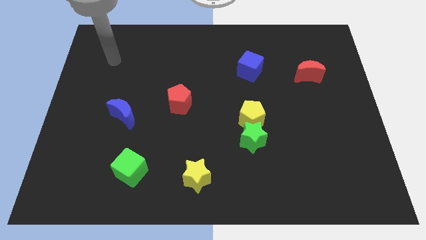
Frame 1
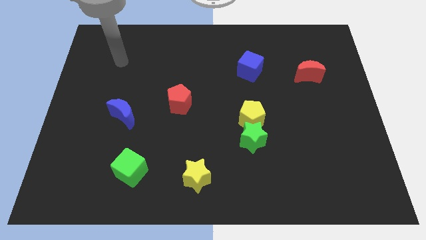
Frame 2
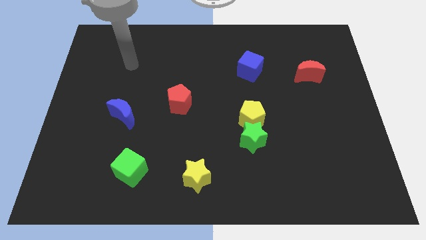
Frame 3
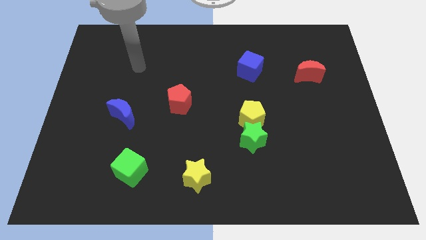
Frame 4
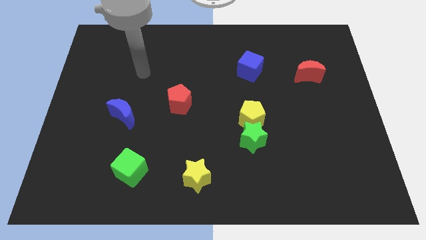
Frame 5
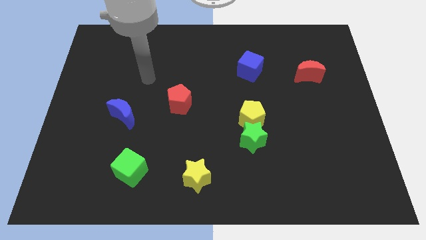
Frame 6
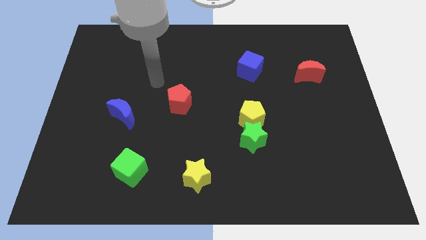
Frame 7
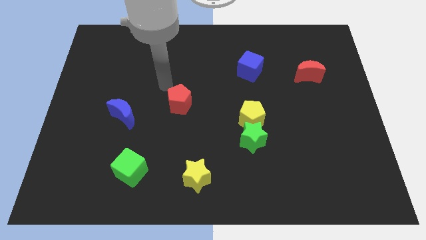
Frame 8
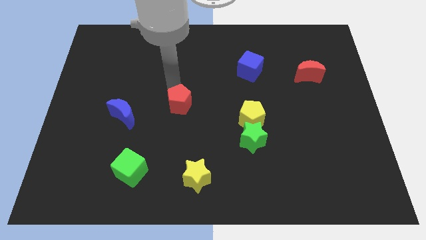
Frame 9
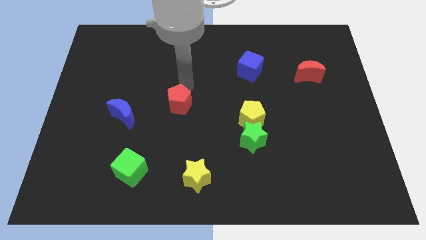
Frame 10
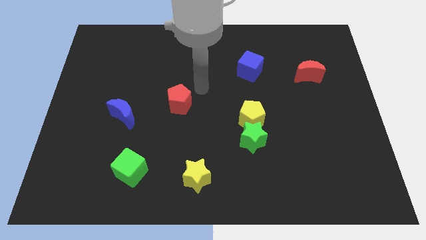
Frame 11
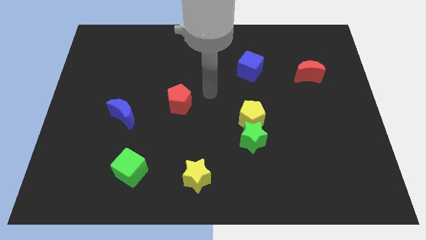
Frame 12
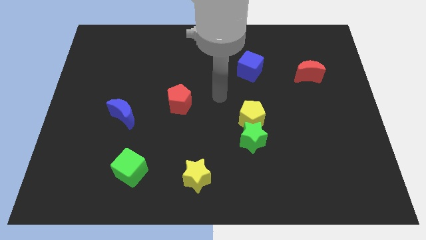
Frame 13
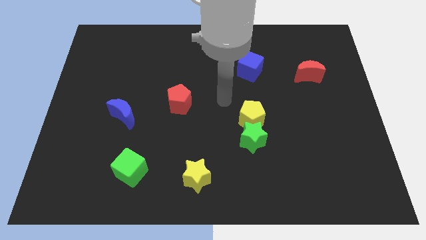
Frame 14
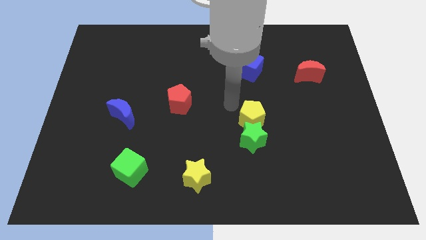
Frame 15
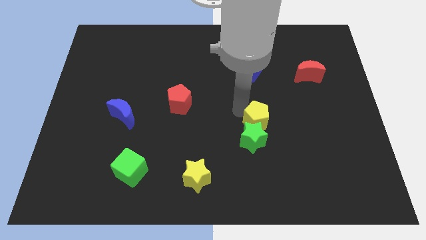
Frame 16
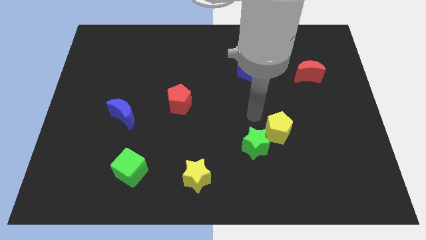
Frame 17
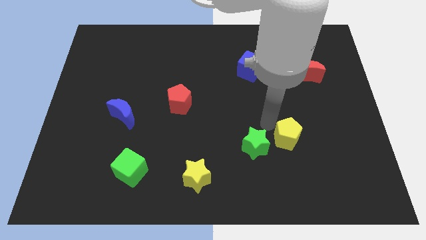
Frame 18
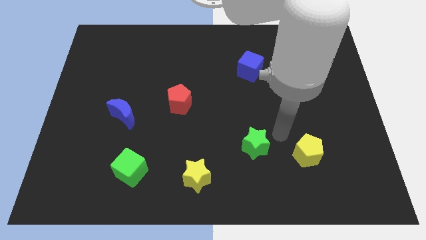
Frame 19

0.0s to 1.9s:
pull the green star apart from the yellow pentagon

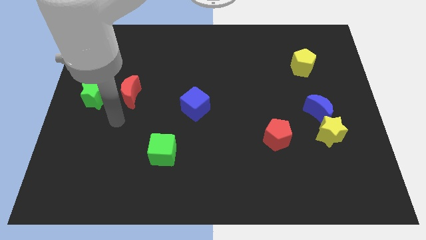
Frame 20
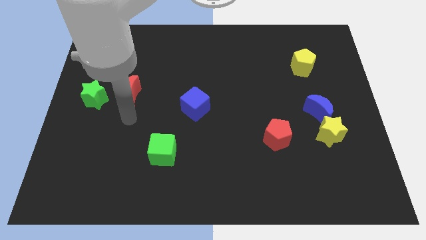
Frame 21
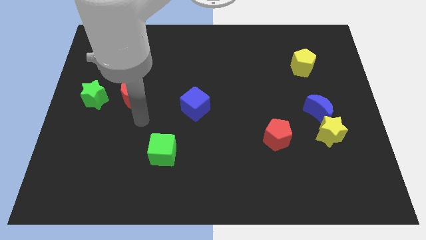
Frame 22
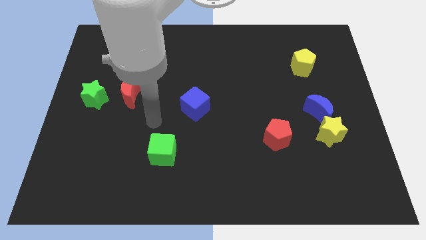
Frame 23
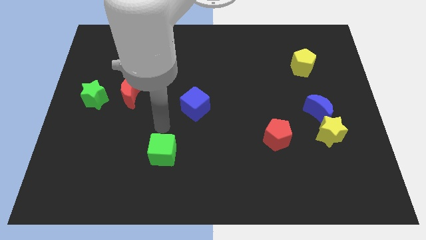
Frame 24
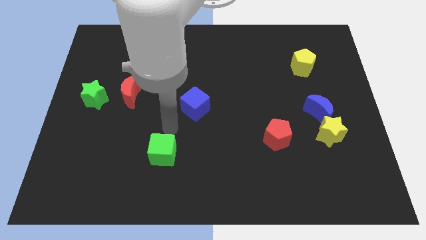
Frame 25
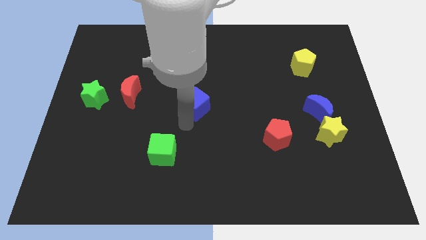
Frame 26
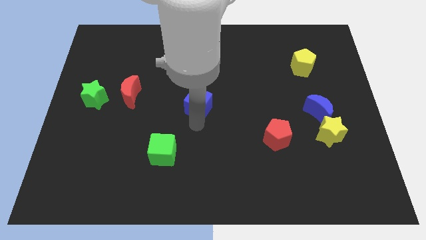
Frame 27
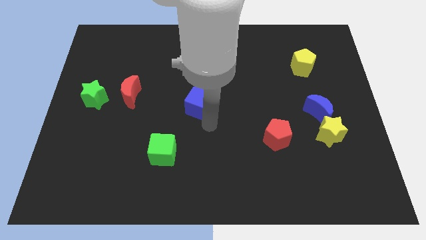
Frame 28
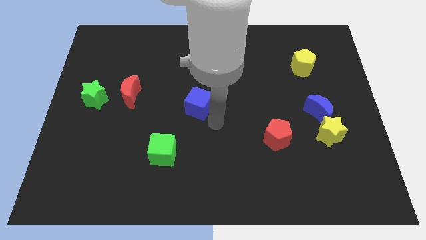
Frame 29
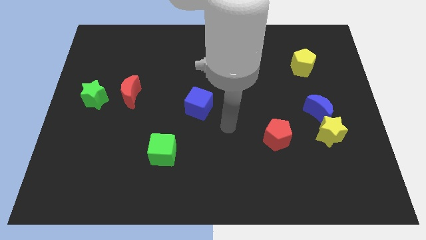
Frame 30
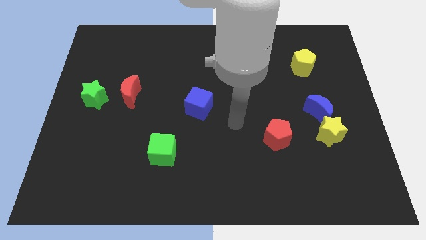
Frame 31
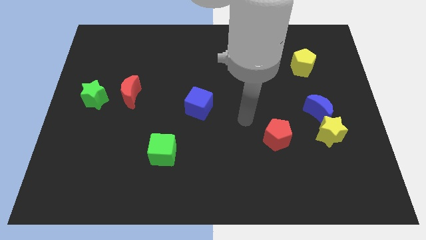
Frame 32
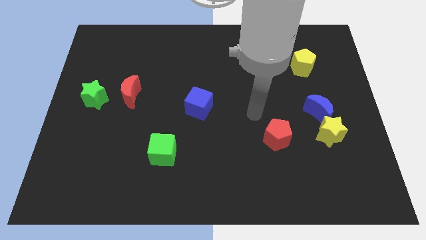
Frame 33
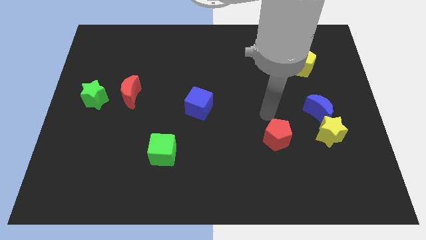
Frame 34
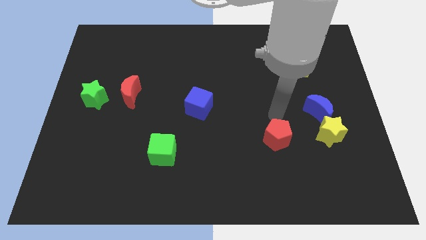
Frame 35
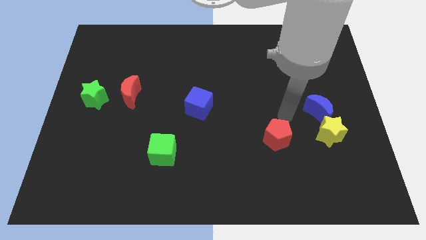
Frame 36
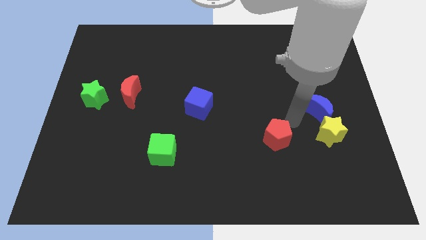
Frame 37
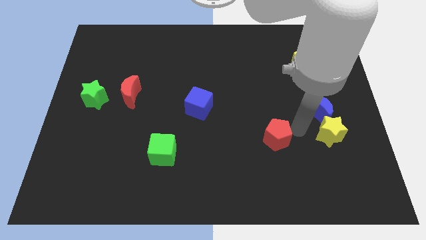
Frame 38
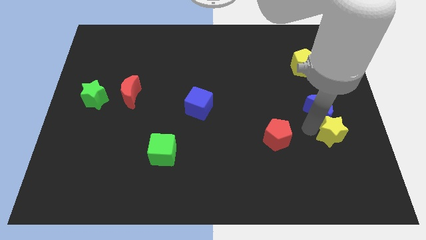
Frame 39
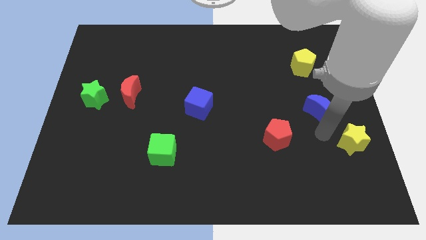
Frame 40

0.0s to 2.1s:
pull the blue moon apart from the yellow star

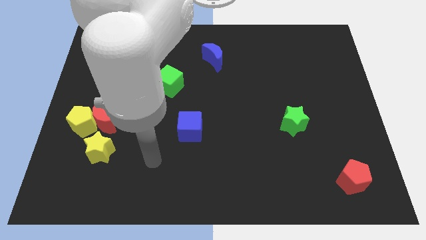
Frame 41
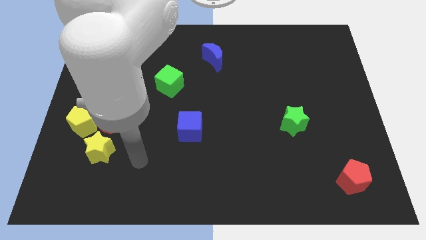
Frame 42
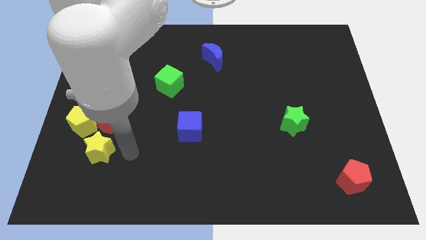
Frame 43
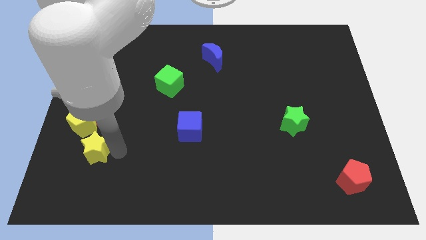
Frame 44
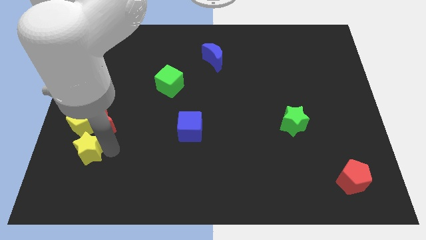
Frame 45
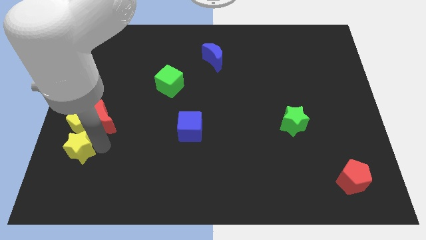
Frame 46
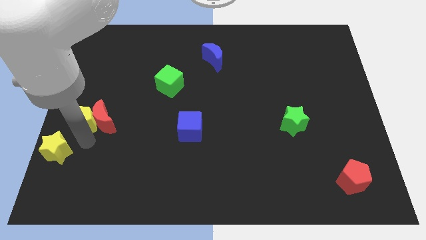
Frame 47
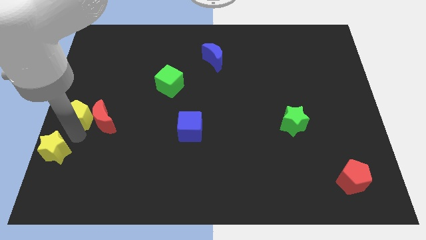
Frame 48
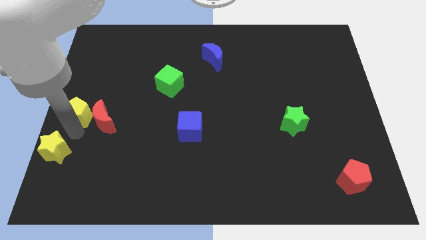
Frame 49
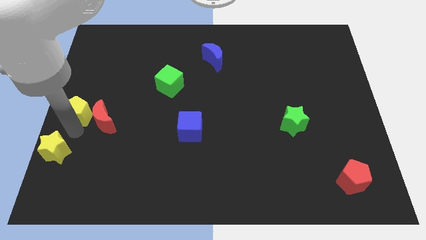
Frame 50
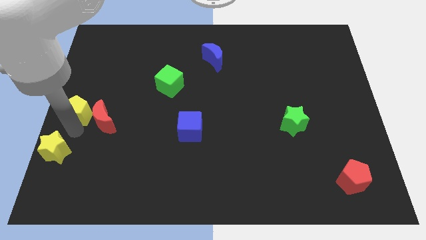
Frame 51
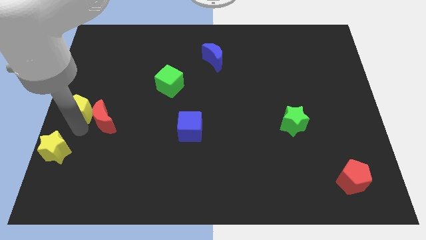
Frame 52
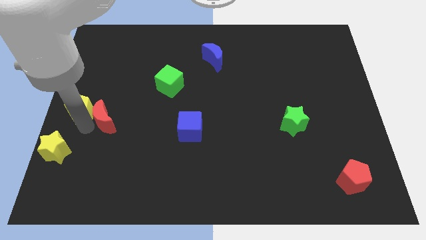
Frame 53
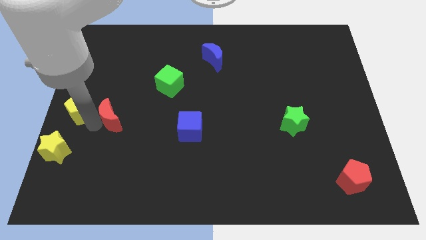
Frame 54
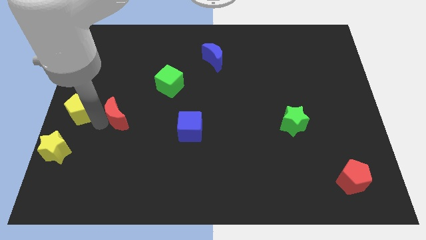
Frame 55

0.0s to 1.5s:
separate the red moon from the yellow pentagon and yellow star

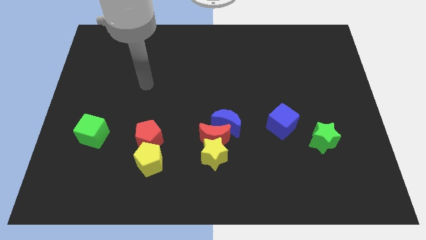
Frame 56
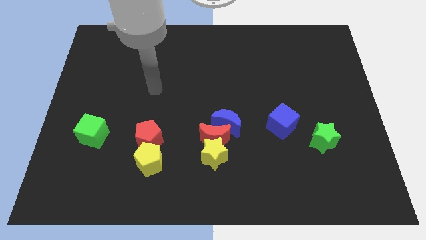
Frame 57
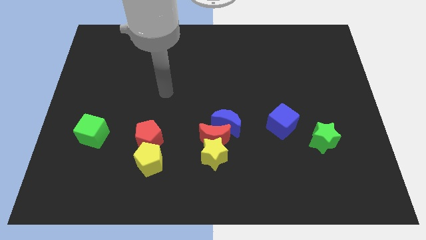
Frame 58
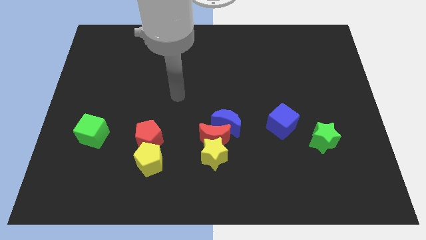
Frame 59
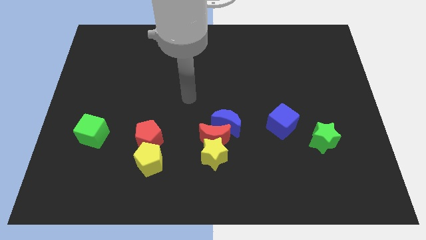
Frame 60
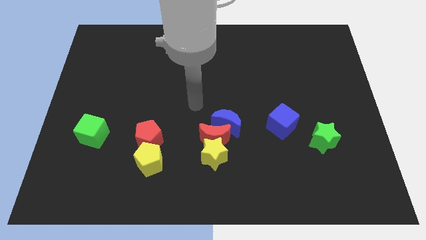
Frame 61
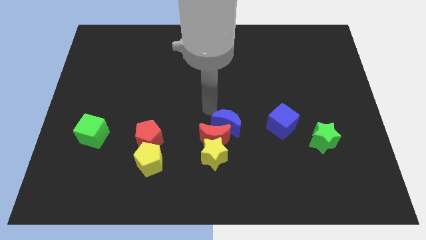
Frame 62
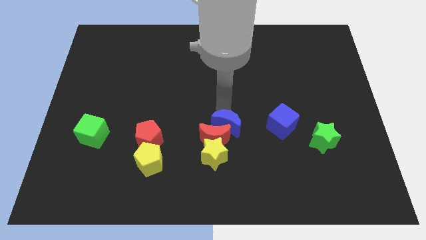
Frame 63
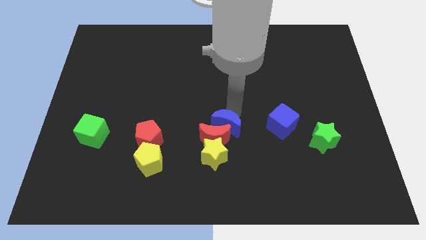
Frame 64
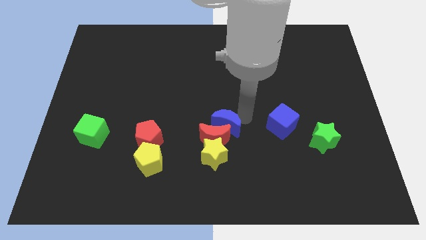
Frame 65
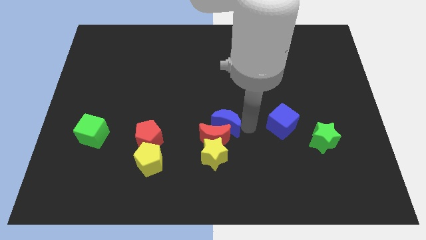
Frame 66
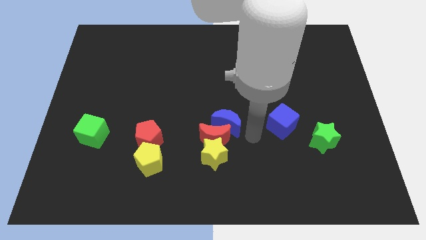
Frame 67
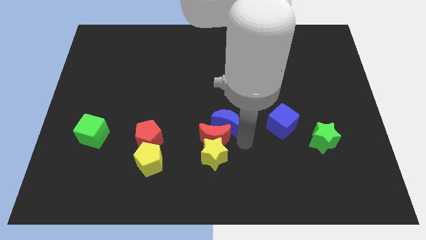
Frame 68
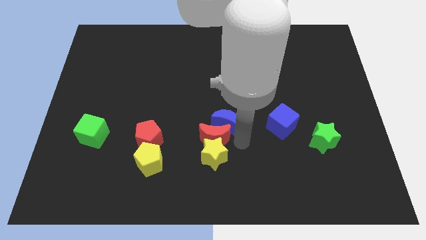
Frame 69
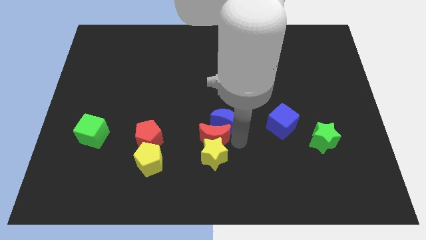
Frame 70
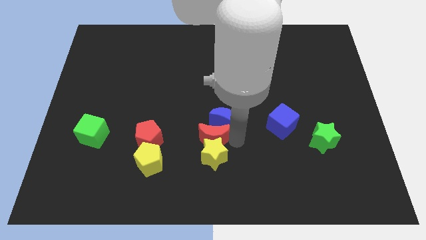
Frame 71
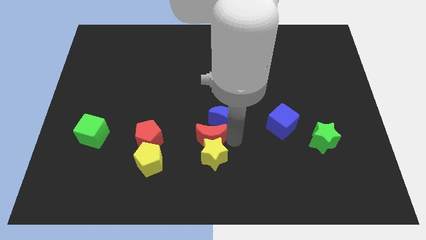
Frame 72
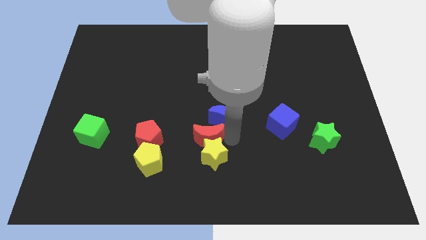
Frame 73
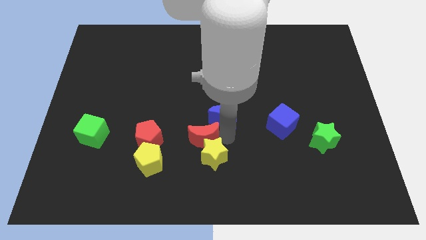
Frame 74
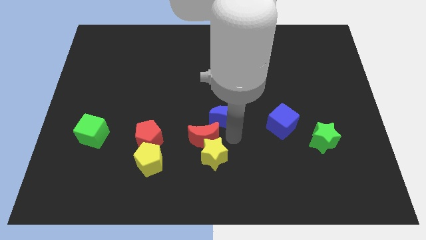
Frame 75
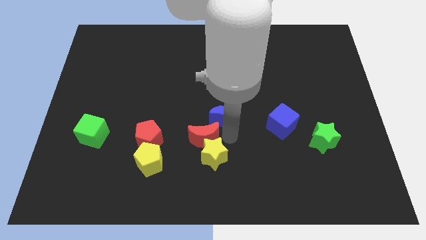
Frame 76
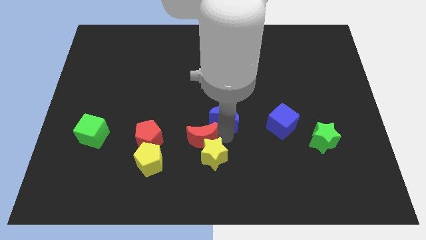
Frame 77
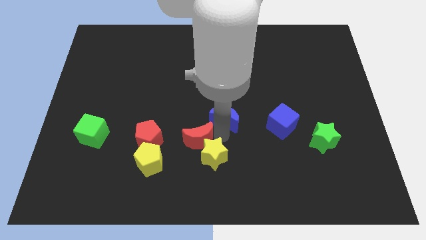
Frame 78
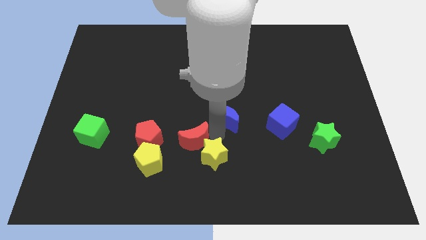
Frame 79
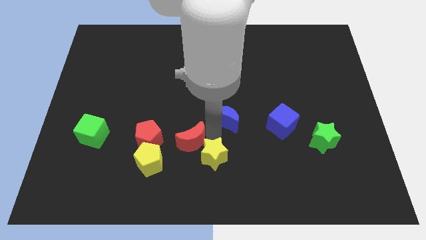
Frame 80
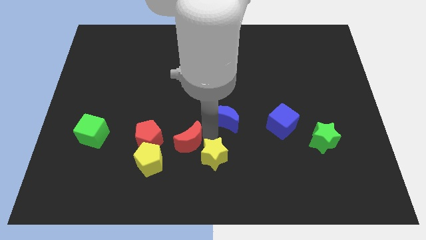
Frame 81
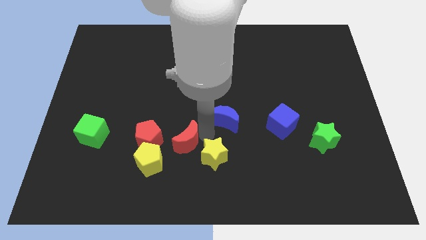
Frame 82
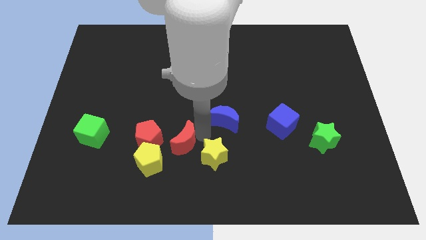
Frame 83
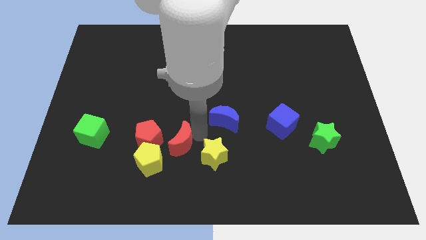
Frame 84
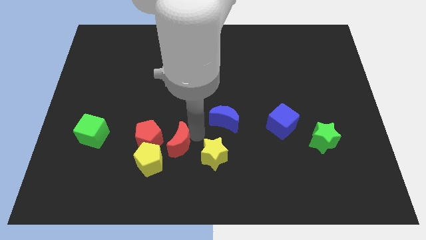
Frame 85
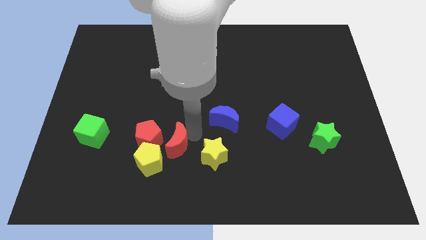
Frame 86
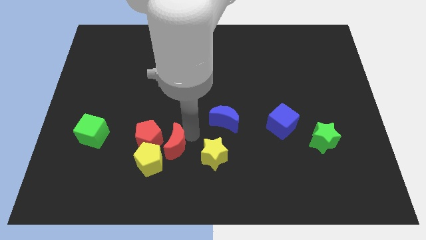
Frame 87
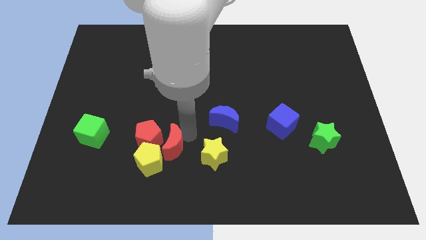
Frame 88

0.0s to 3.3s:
pull the red moon apart from the yellow star and blue moon

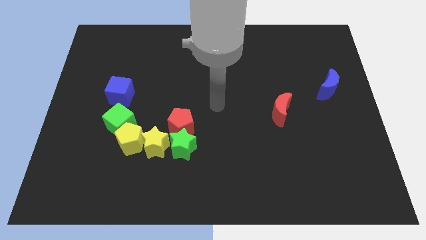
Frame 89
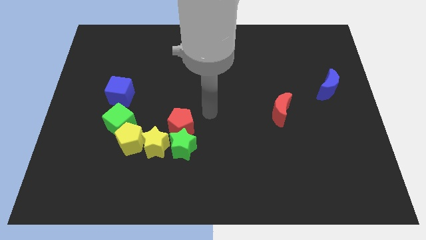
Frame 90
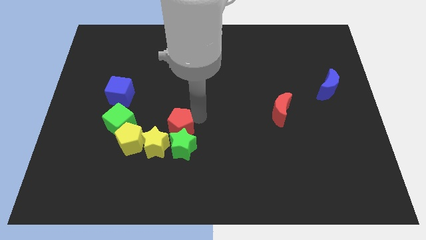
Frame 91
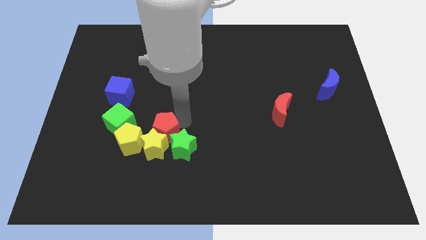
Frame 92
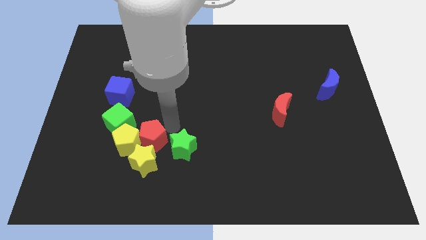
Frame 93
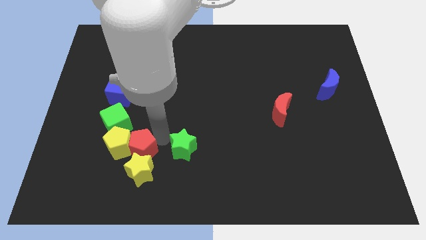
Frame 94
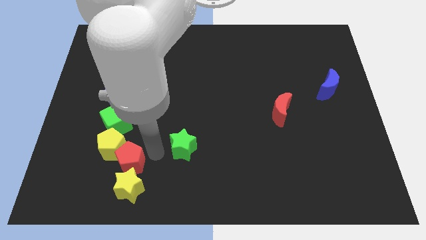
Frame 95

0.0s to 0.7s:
move the green star away from the red pentagon and yellow star
